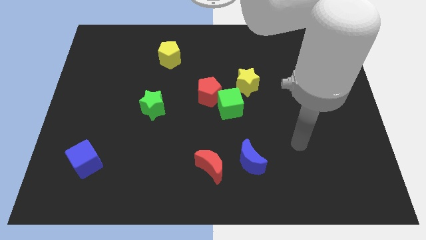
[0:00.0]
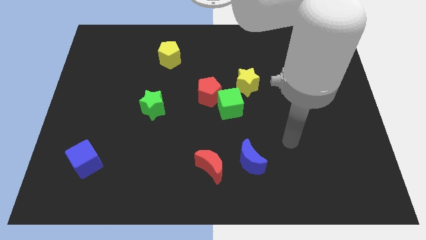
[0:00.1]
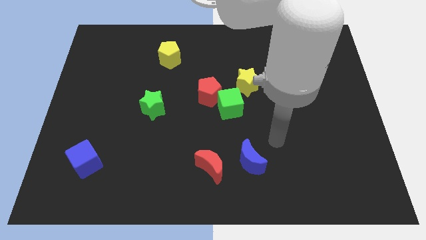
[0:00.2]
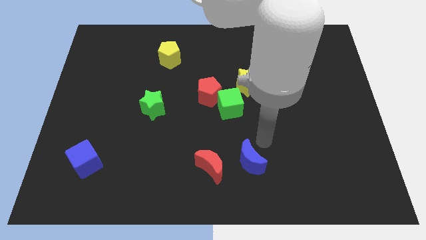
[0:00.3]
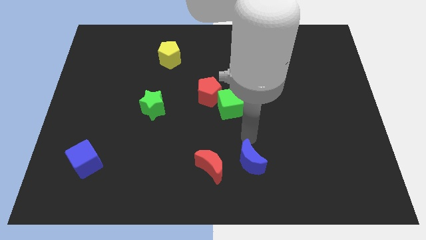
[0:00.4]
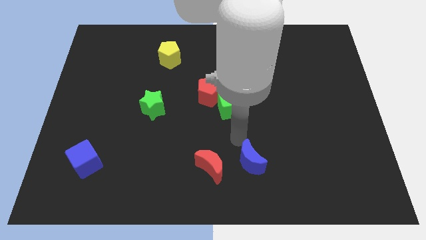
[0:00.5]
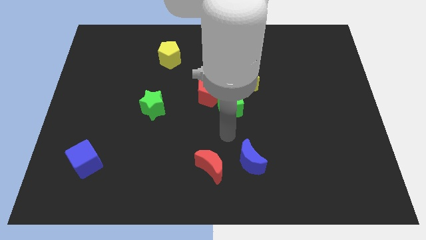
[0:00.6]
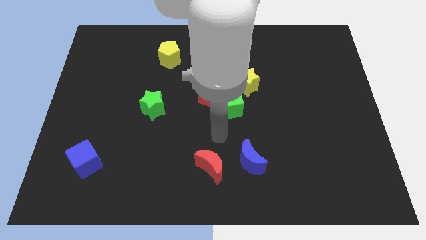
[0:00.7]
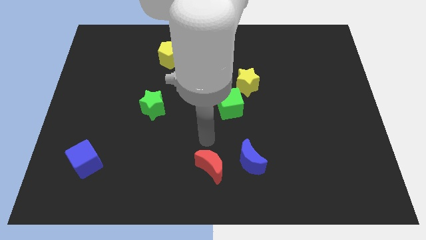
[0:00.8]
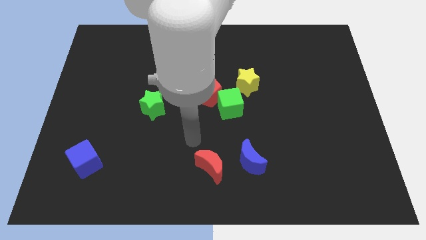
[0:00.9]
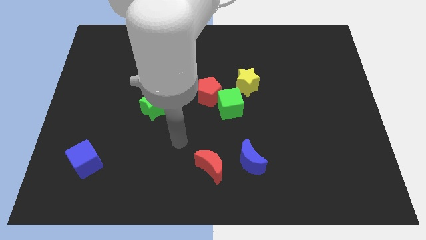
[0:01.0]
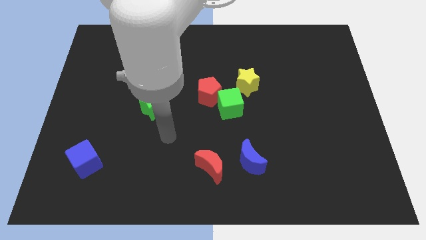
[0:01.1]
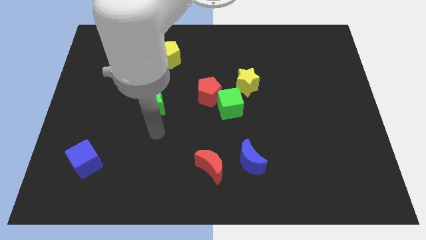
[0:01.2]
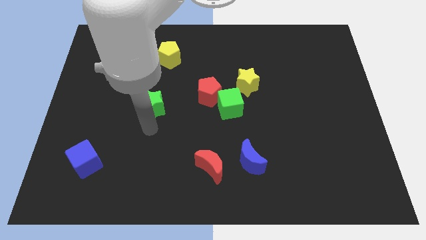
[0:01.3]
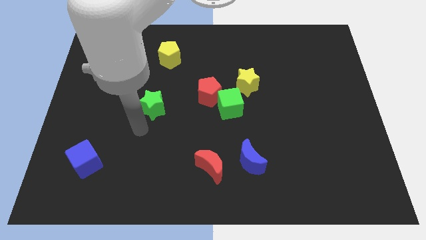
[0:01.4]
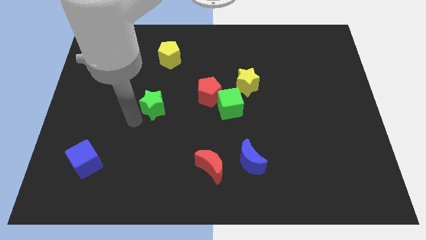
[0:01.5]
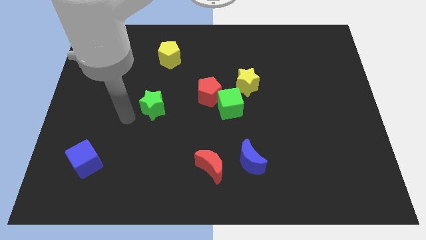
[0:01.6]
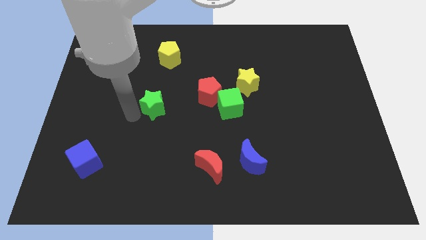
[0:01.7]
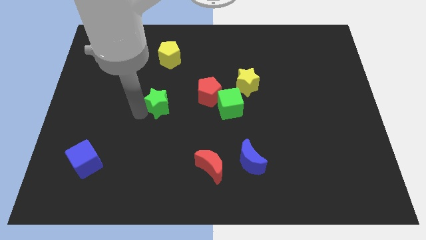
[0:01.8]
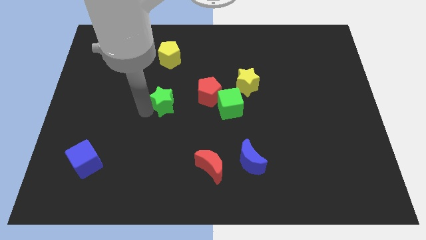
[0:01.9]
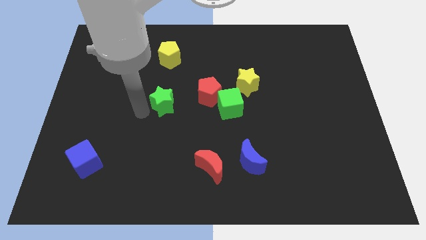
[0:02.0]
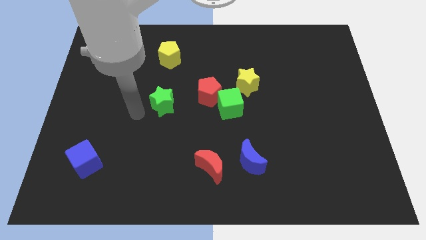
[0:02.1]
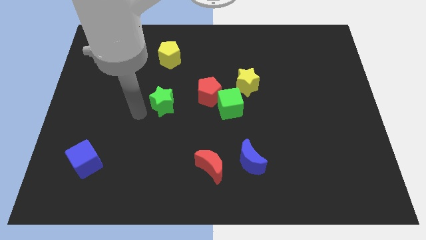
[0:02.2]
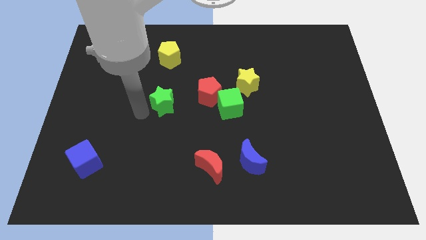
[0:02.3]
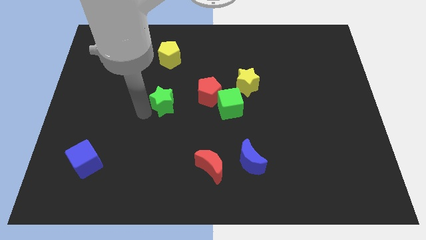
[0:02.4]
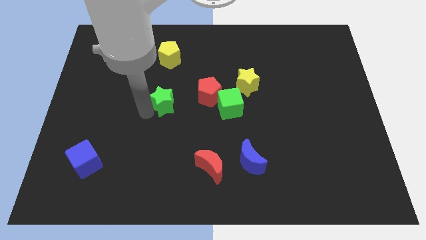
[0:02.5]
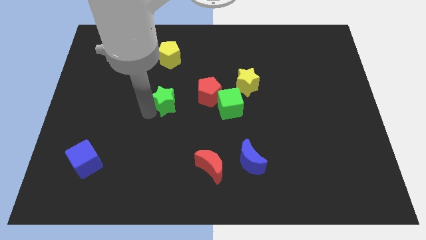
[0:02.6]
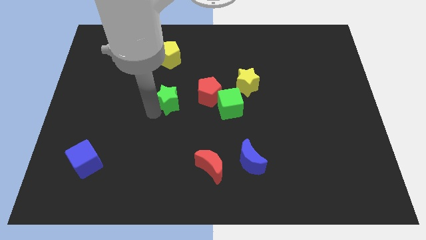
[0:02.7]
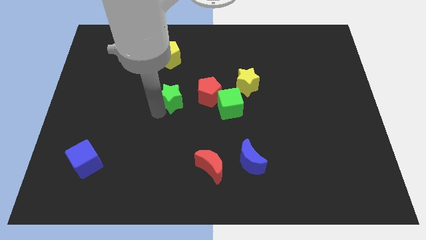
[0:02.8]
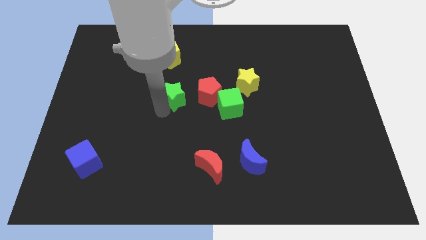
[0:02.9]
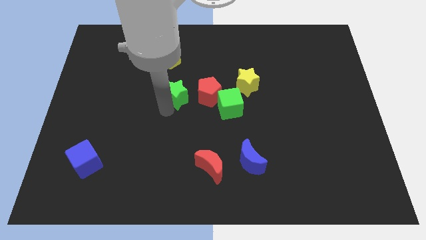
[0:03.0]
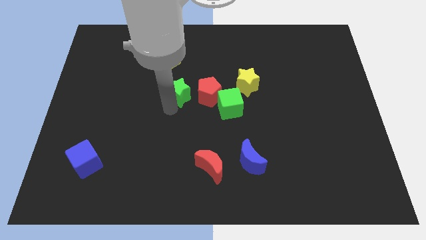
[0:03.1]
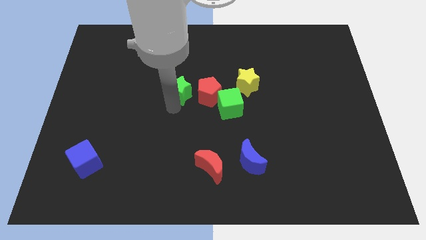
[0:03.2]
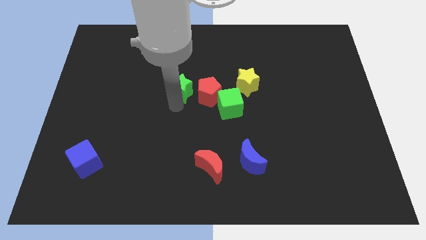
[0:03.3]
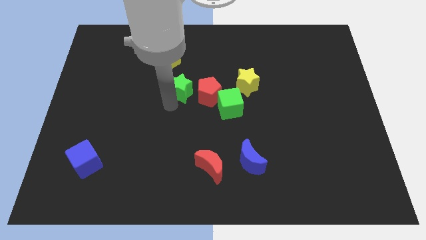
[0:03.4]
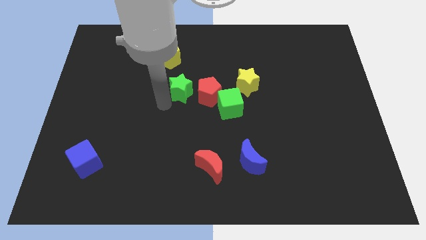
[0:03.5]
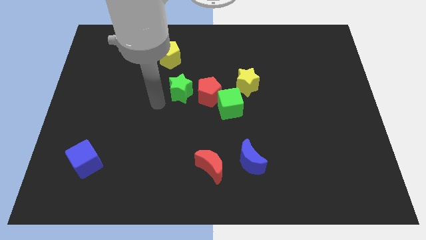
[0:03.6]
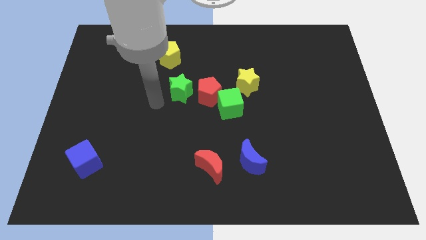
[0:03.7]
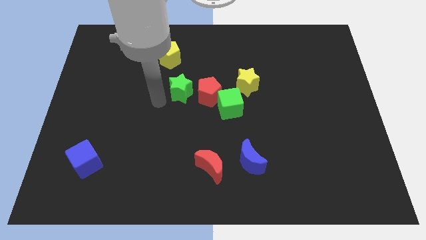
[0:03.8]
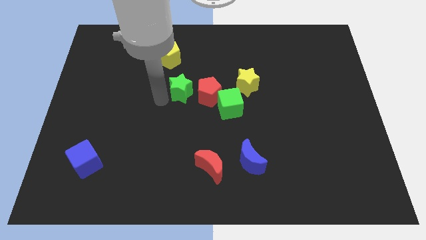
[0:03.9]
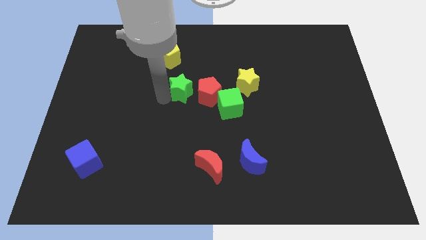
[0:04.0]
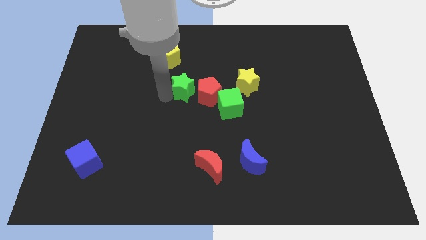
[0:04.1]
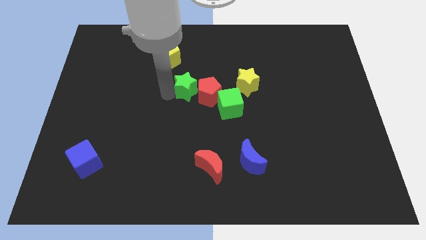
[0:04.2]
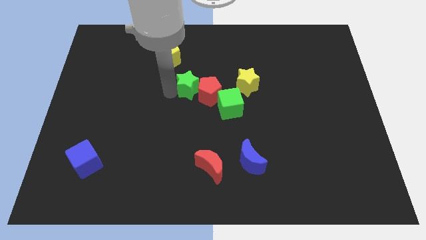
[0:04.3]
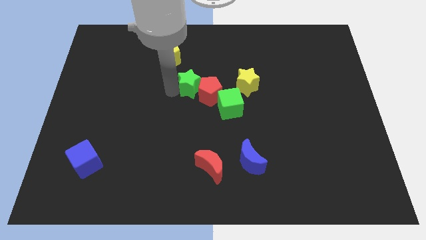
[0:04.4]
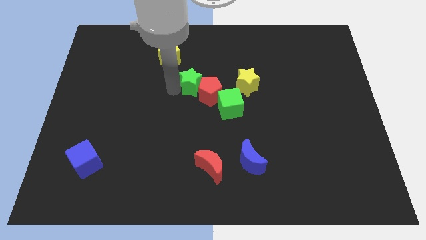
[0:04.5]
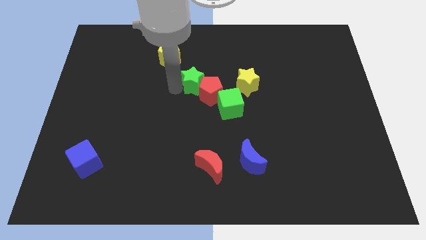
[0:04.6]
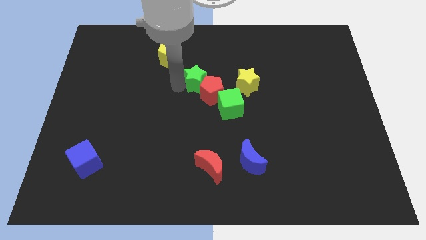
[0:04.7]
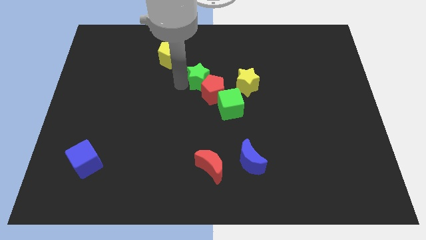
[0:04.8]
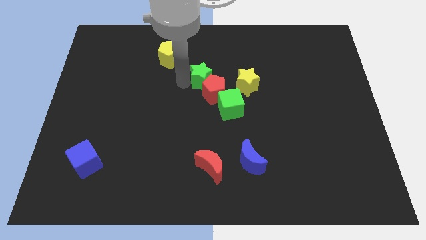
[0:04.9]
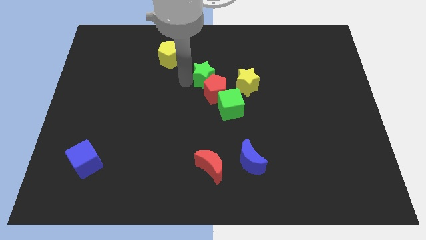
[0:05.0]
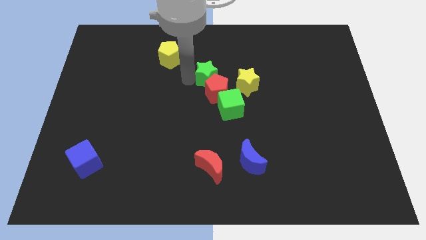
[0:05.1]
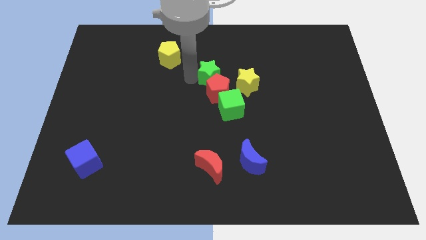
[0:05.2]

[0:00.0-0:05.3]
put the green star diagonally up and to the left of the yellow star

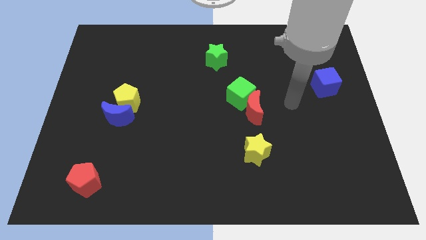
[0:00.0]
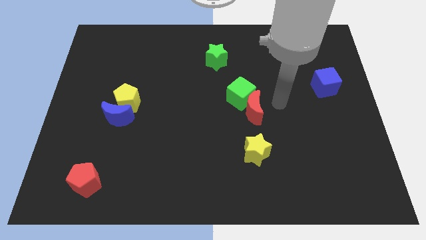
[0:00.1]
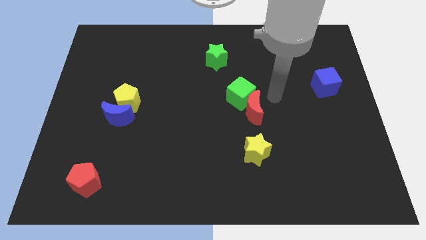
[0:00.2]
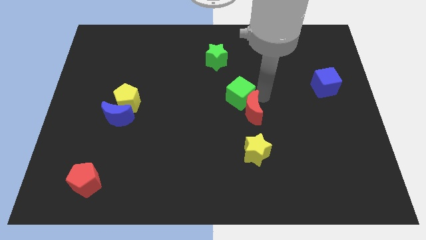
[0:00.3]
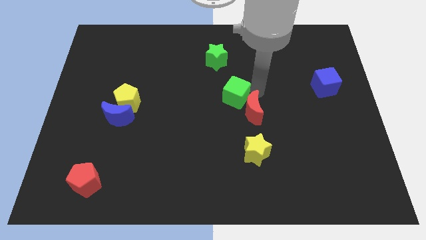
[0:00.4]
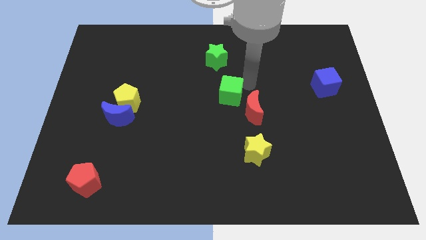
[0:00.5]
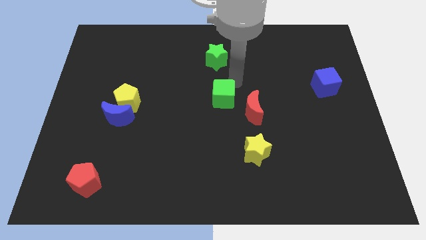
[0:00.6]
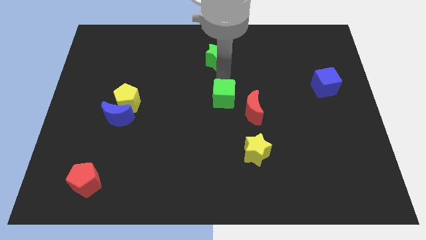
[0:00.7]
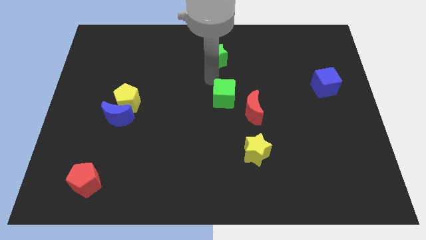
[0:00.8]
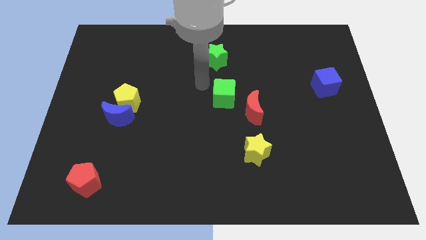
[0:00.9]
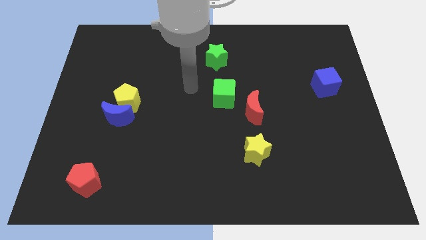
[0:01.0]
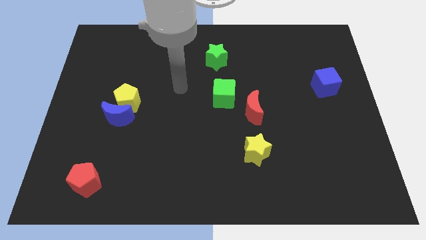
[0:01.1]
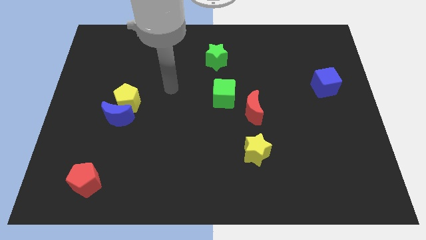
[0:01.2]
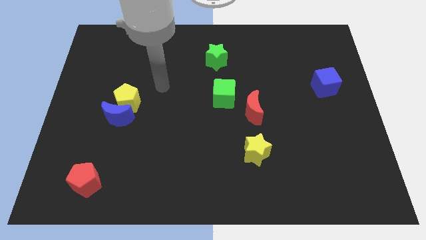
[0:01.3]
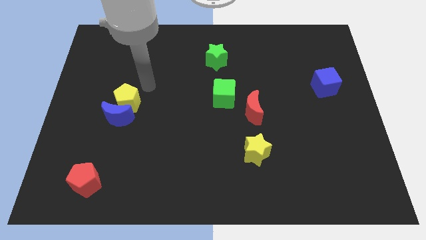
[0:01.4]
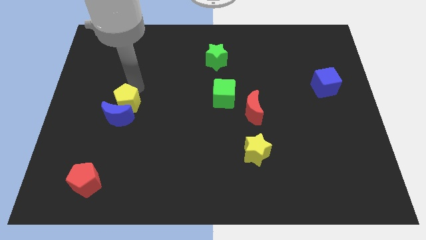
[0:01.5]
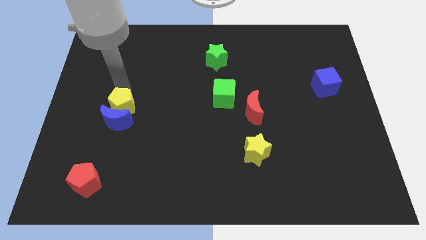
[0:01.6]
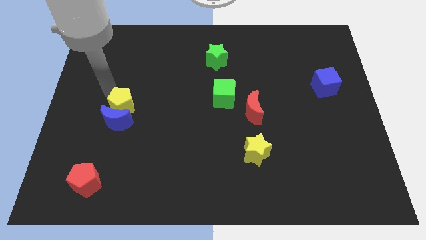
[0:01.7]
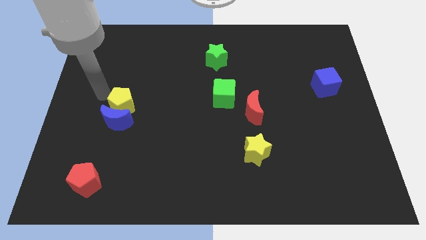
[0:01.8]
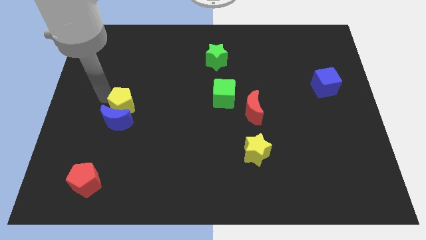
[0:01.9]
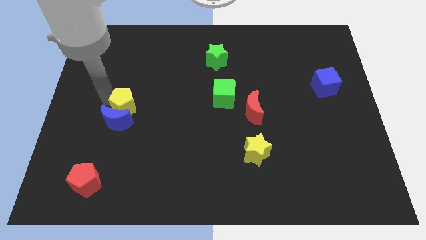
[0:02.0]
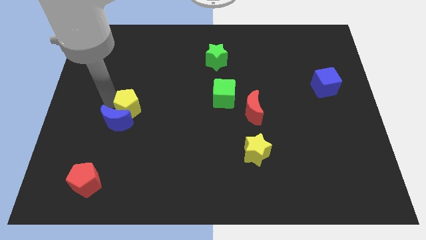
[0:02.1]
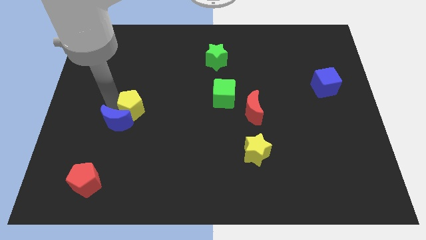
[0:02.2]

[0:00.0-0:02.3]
push the yellow pentagon to the right of the blue moon

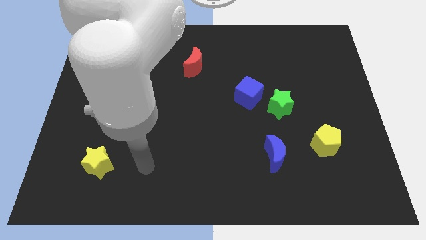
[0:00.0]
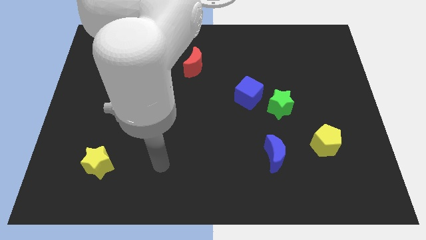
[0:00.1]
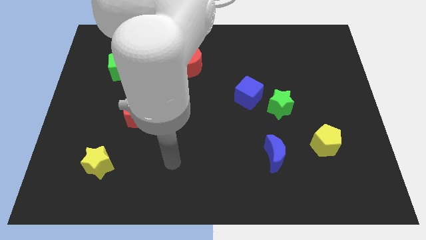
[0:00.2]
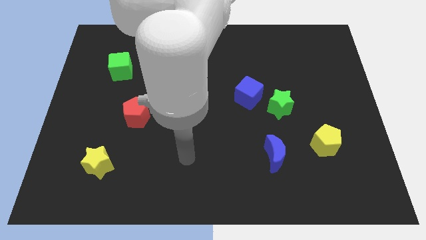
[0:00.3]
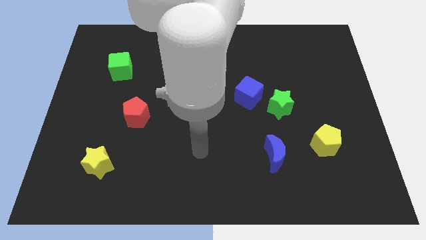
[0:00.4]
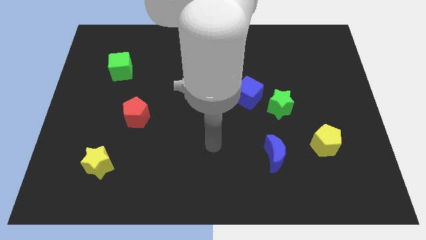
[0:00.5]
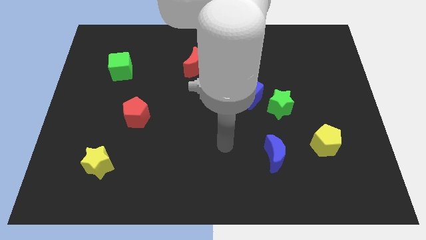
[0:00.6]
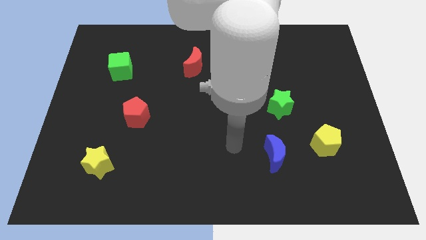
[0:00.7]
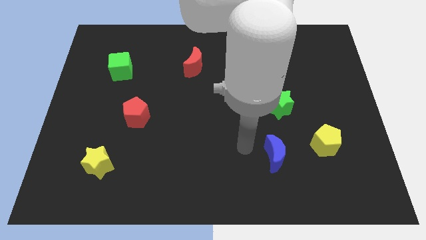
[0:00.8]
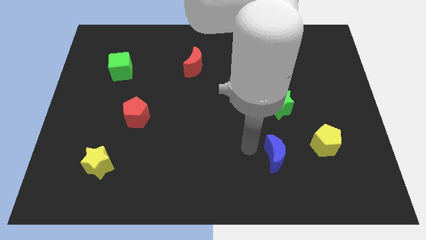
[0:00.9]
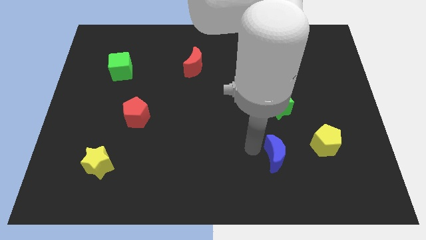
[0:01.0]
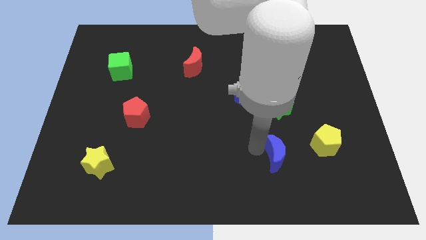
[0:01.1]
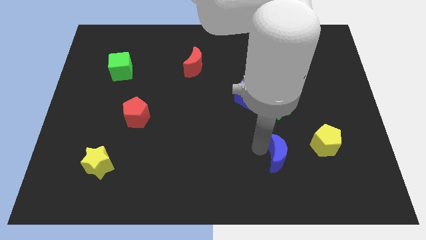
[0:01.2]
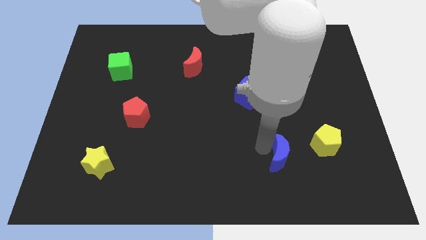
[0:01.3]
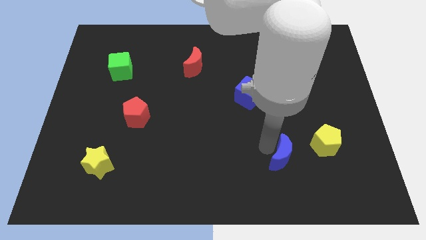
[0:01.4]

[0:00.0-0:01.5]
move the blue moon to the bottom left side of the yellow pentagon
